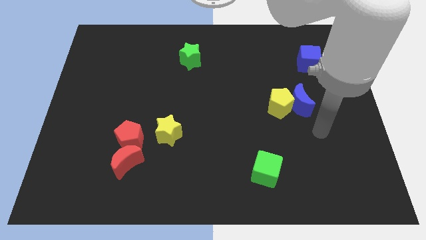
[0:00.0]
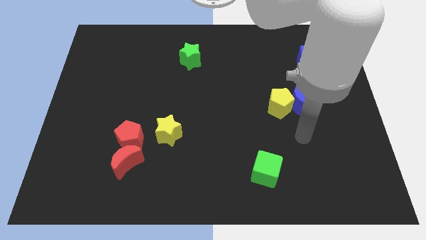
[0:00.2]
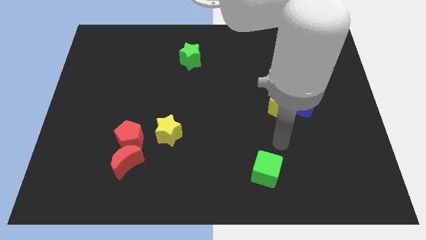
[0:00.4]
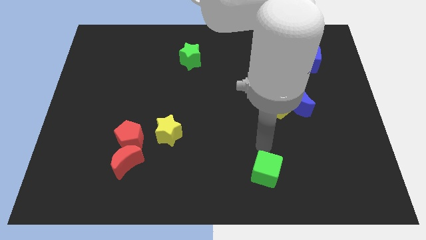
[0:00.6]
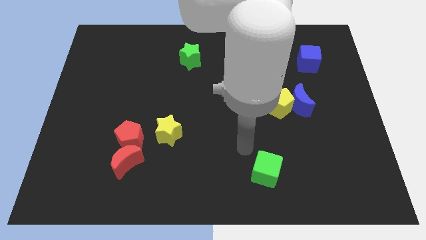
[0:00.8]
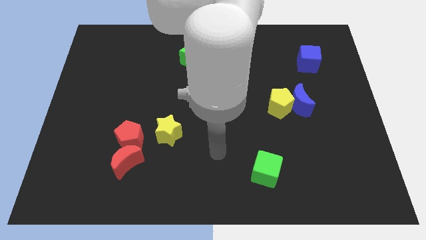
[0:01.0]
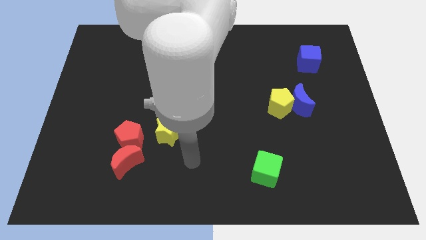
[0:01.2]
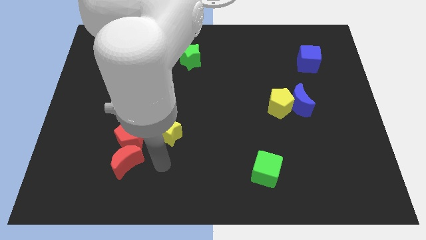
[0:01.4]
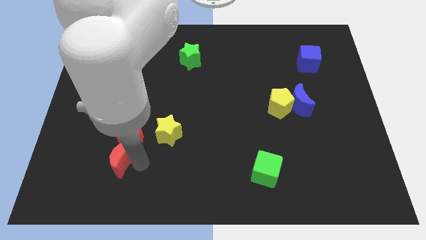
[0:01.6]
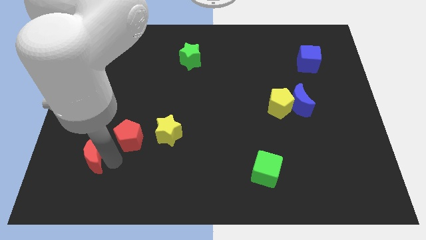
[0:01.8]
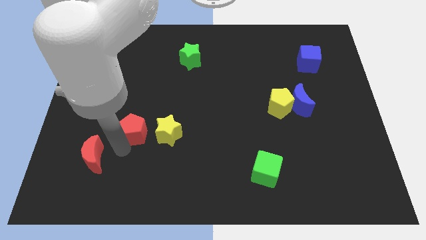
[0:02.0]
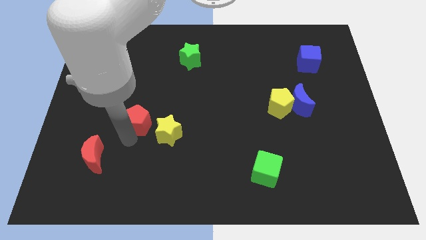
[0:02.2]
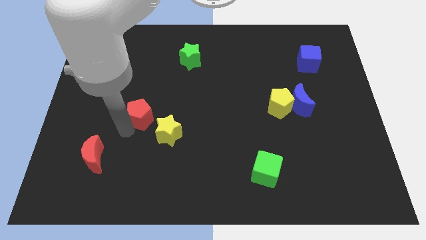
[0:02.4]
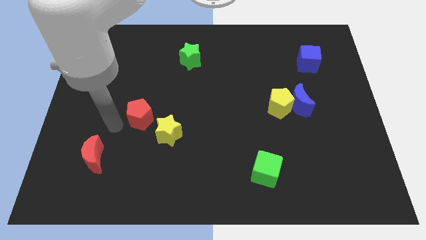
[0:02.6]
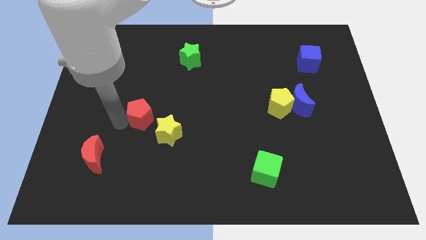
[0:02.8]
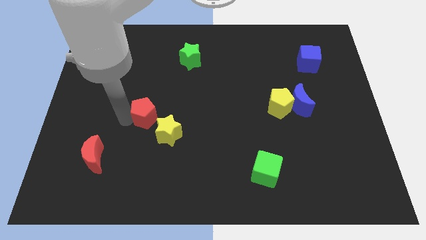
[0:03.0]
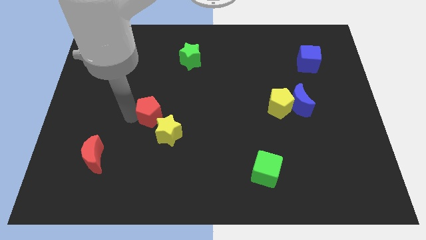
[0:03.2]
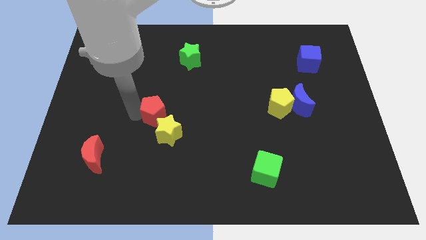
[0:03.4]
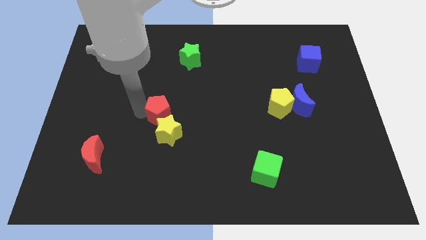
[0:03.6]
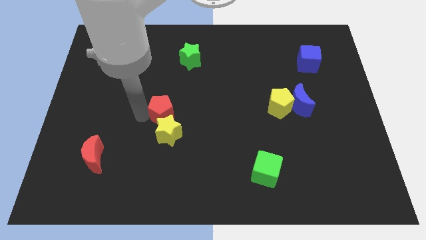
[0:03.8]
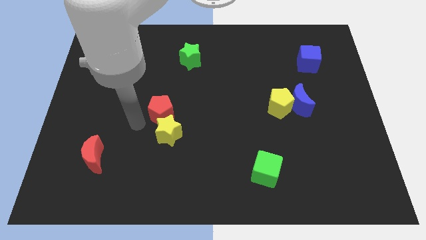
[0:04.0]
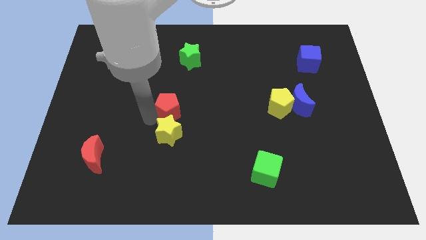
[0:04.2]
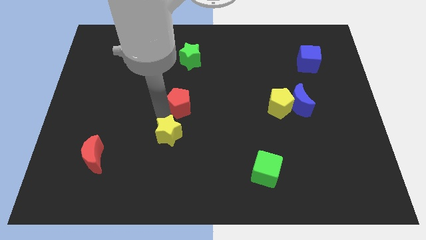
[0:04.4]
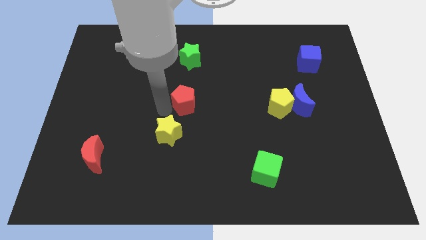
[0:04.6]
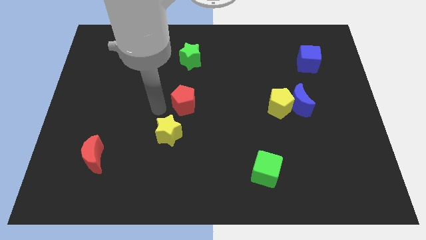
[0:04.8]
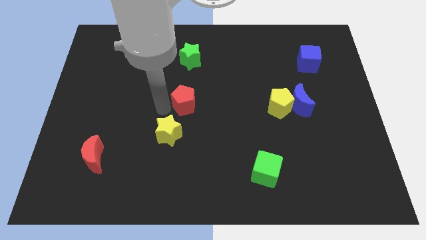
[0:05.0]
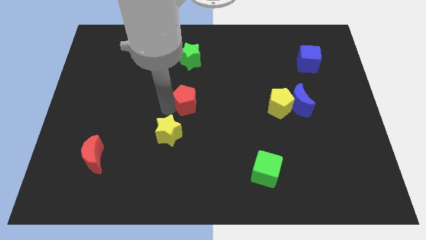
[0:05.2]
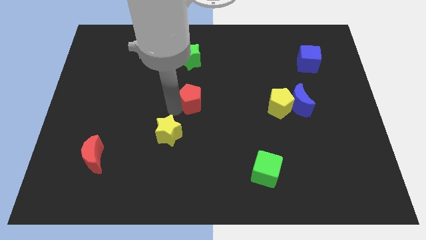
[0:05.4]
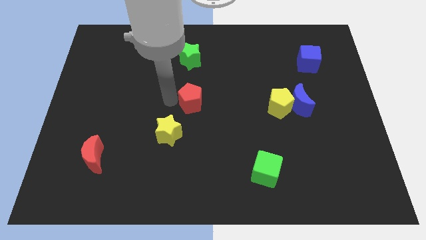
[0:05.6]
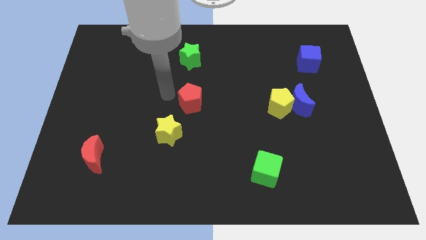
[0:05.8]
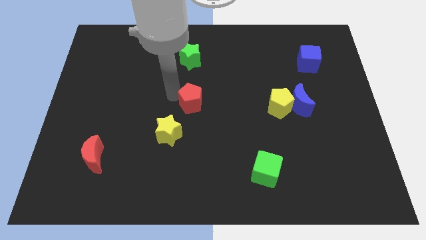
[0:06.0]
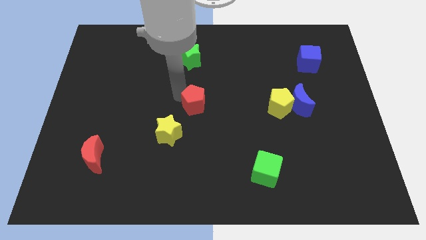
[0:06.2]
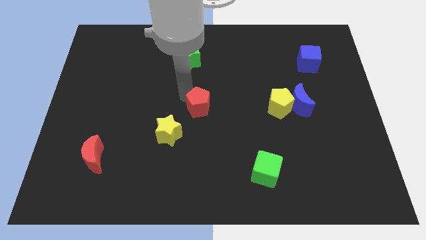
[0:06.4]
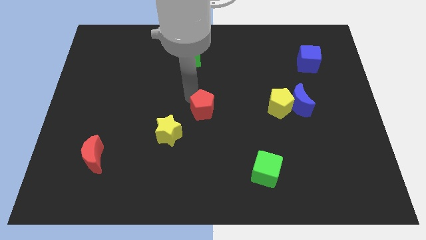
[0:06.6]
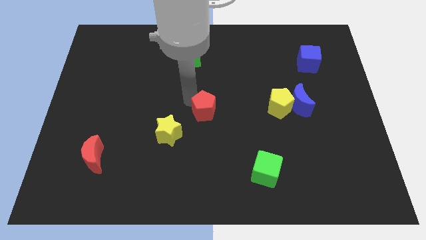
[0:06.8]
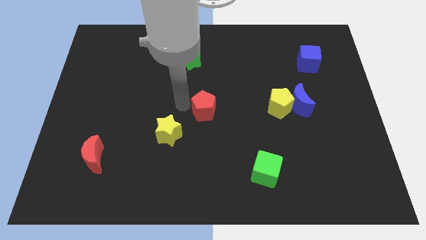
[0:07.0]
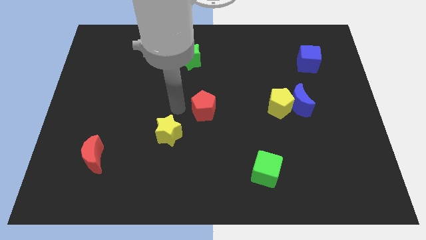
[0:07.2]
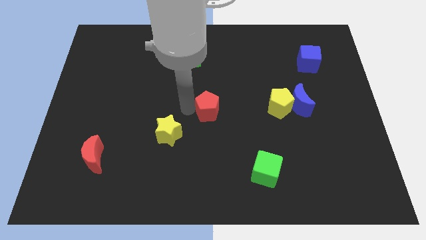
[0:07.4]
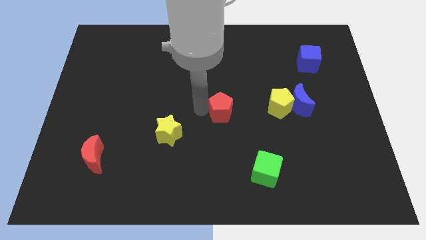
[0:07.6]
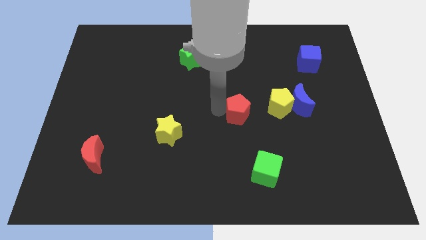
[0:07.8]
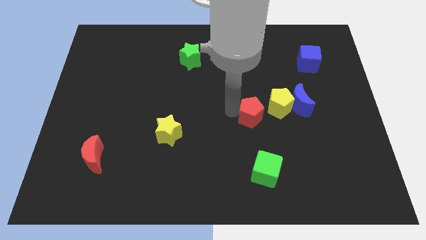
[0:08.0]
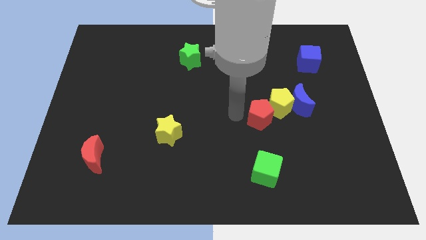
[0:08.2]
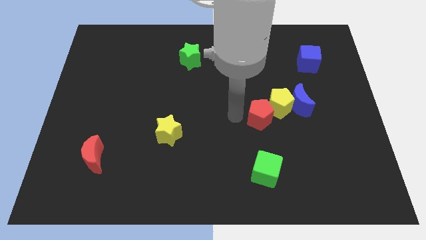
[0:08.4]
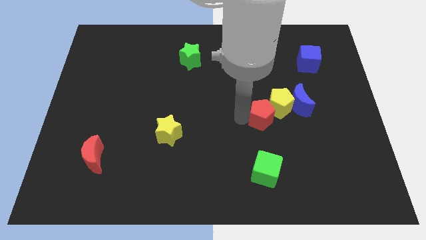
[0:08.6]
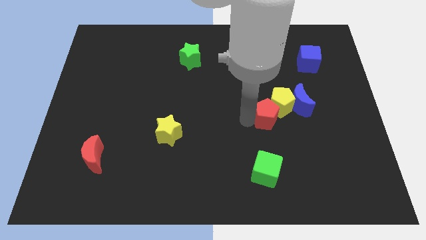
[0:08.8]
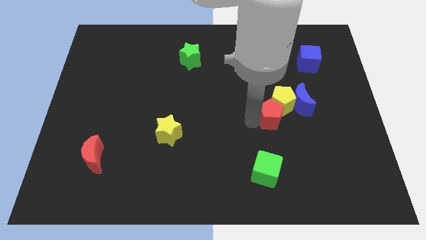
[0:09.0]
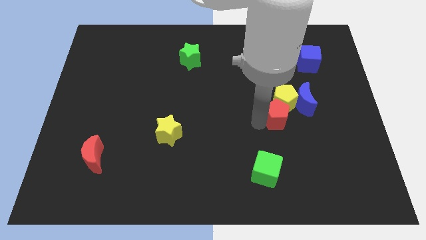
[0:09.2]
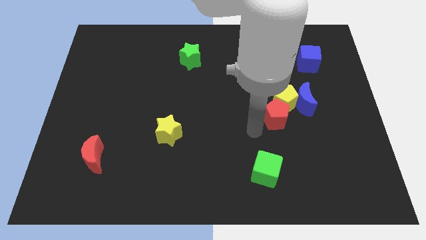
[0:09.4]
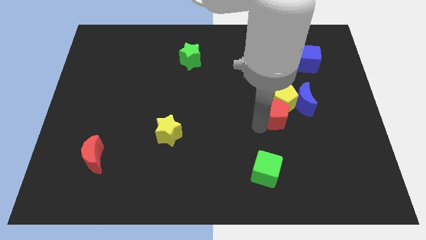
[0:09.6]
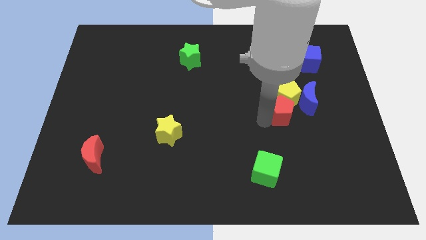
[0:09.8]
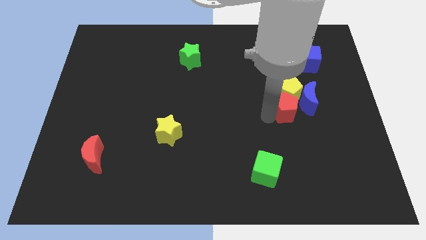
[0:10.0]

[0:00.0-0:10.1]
put the red pentagon to the blue moon

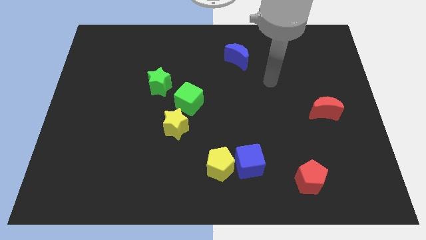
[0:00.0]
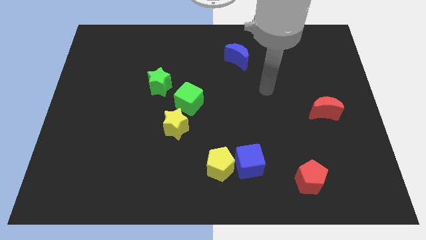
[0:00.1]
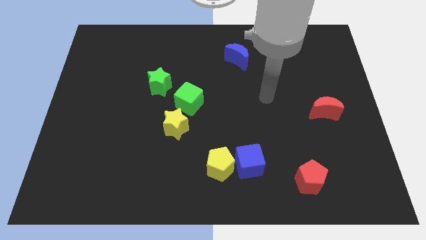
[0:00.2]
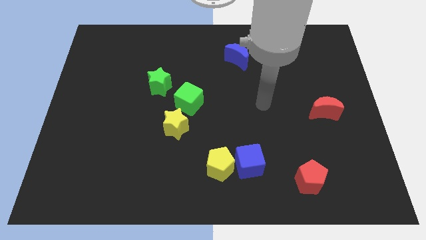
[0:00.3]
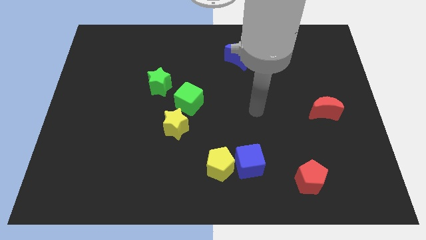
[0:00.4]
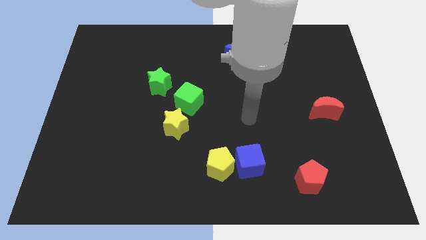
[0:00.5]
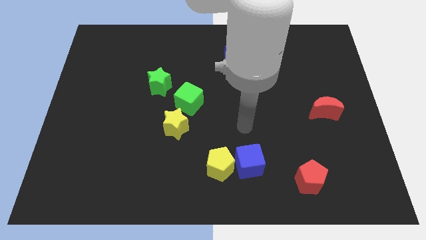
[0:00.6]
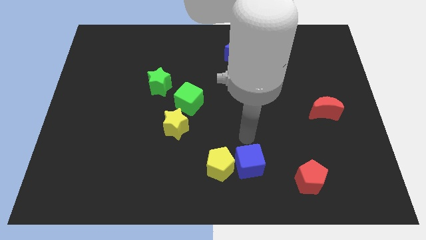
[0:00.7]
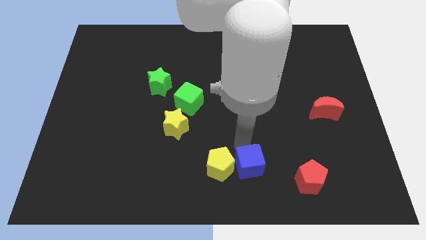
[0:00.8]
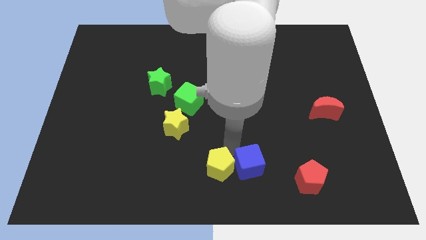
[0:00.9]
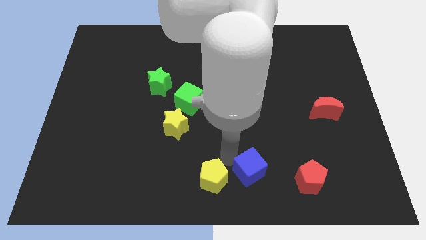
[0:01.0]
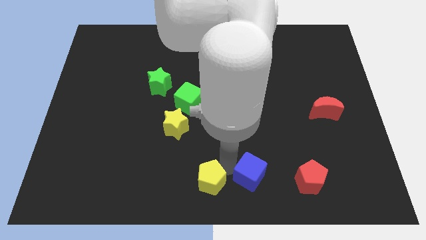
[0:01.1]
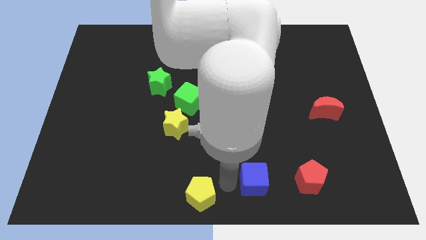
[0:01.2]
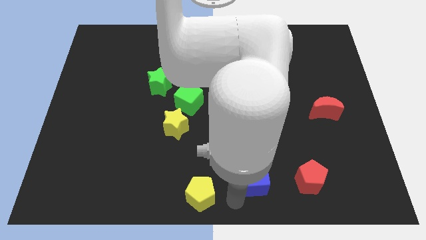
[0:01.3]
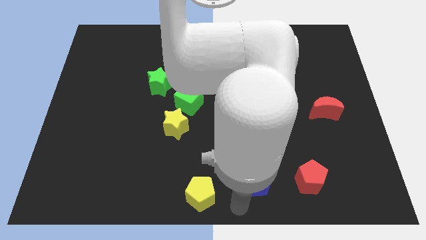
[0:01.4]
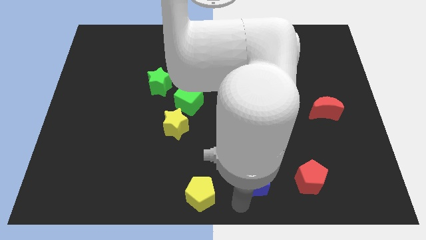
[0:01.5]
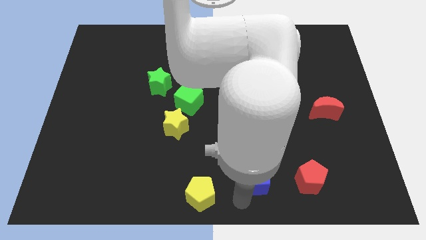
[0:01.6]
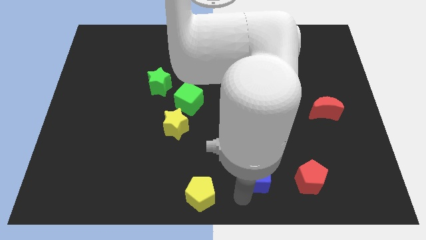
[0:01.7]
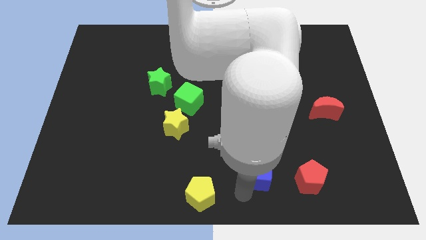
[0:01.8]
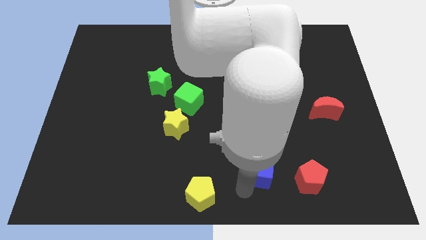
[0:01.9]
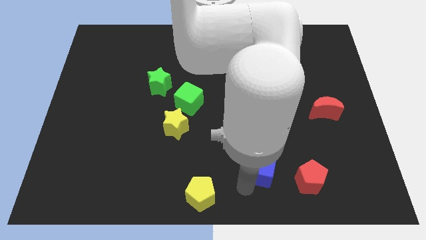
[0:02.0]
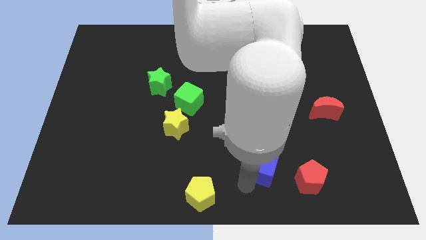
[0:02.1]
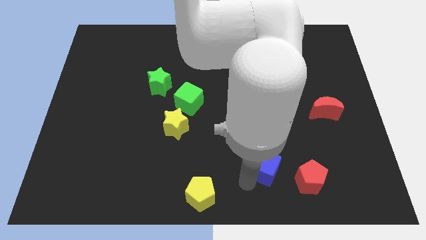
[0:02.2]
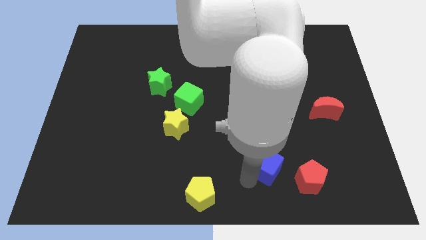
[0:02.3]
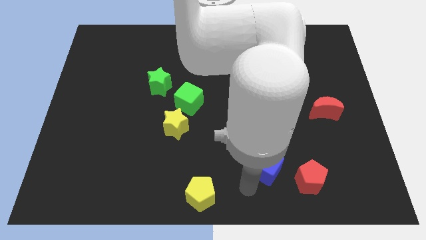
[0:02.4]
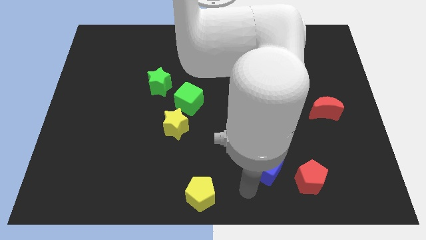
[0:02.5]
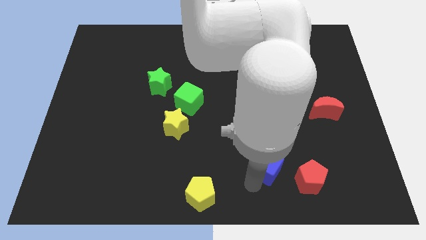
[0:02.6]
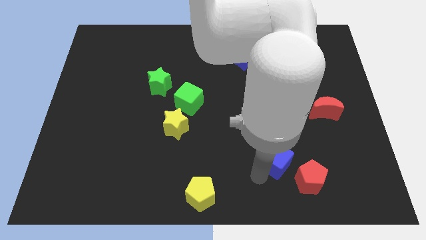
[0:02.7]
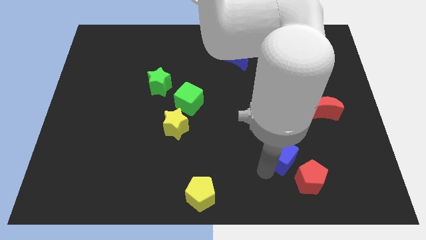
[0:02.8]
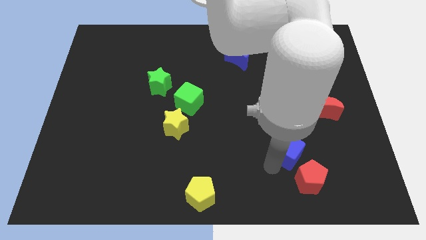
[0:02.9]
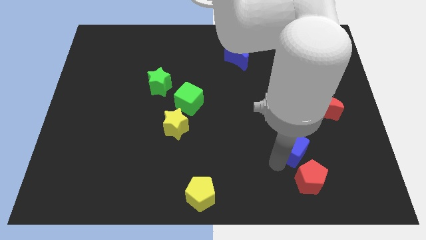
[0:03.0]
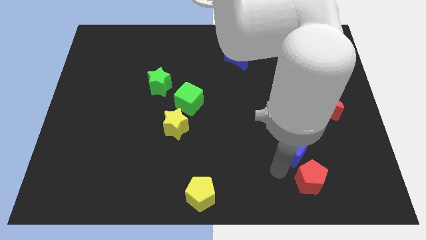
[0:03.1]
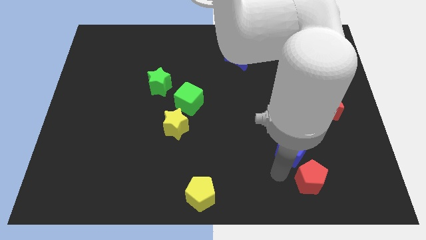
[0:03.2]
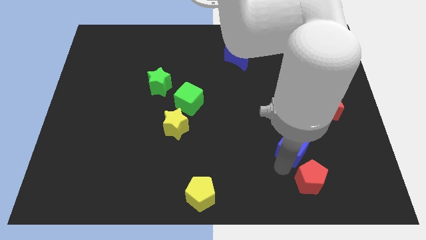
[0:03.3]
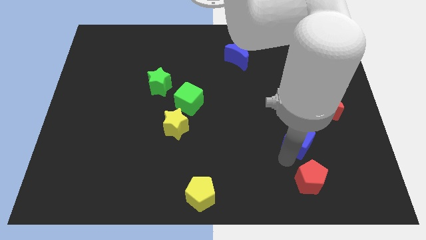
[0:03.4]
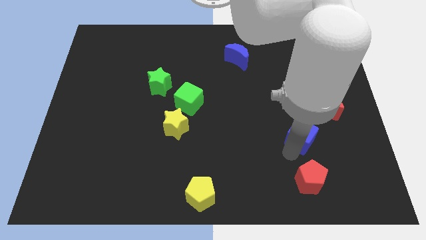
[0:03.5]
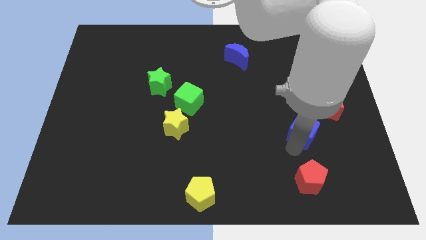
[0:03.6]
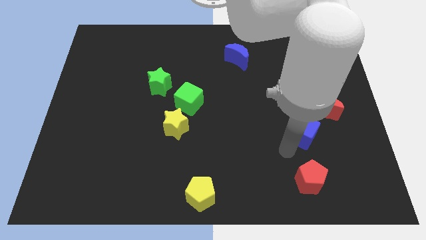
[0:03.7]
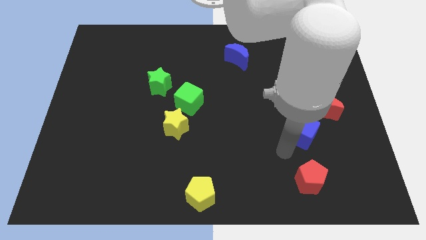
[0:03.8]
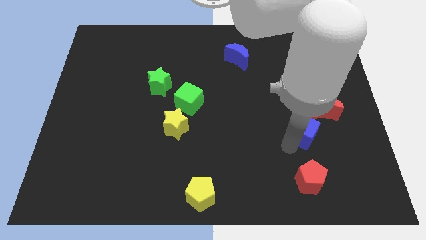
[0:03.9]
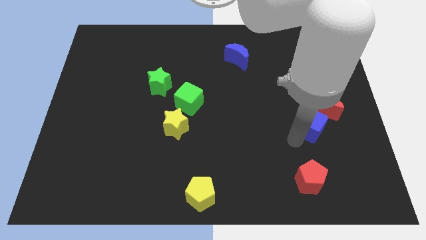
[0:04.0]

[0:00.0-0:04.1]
push the blue cube next to the red moon
